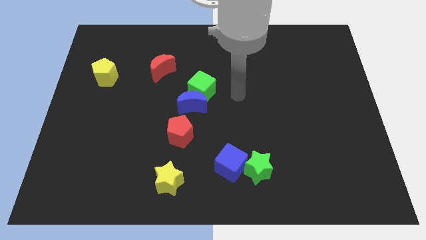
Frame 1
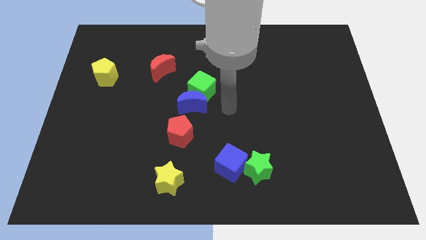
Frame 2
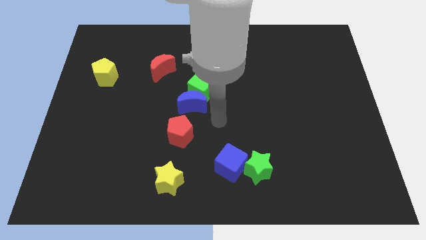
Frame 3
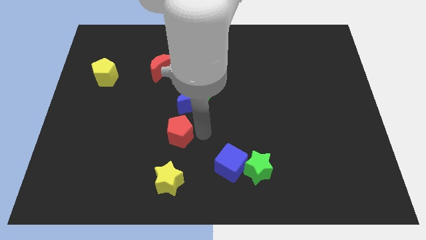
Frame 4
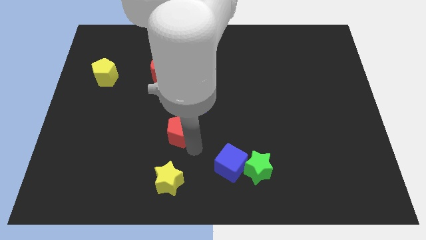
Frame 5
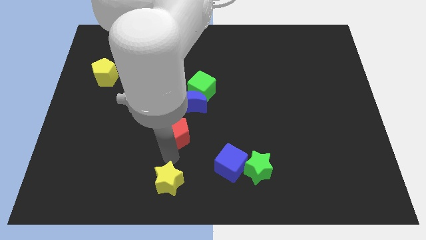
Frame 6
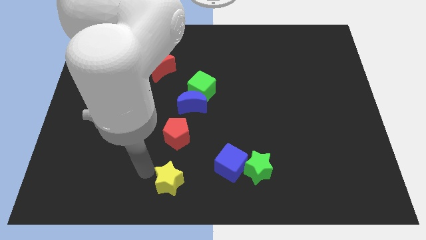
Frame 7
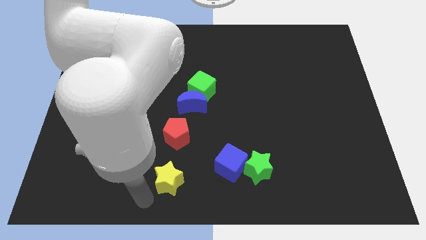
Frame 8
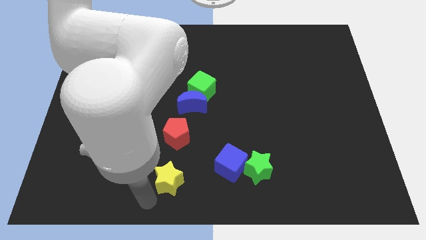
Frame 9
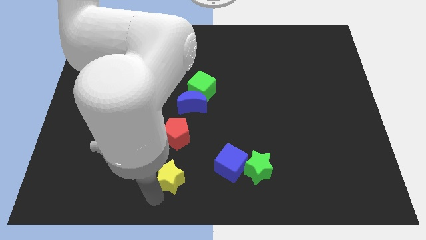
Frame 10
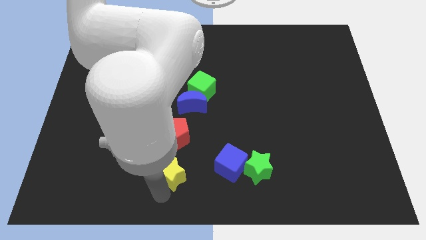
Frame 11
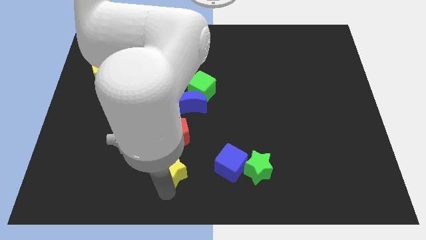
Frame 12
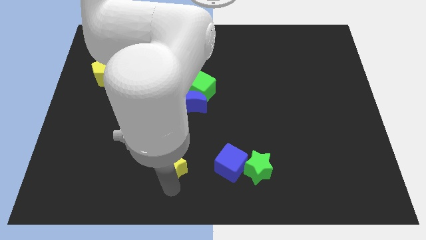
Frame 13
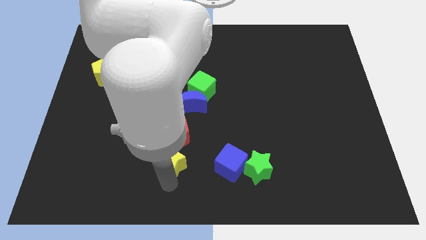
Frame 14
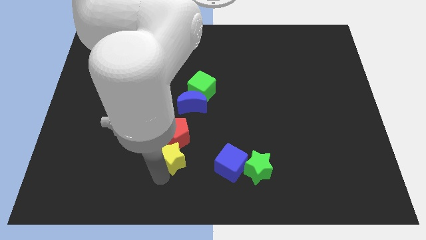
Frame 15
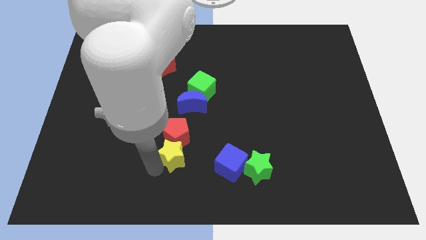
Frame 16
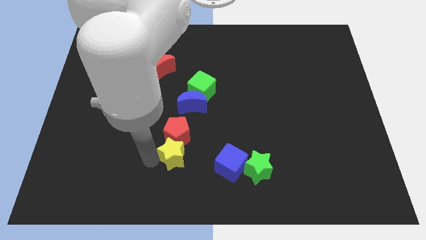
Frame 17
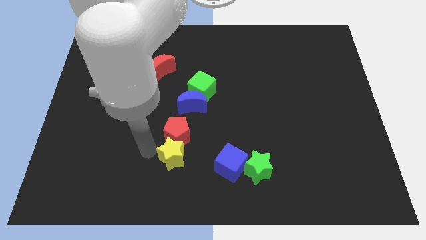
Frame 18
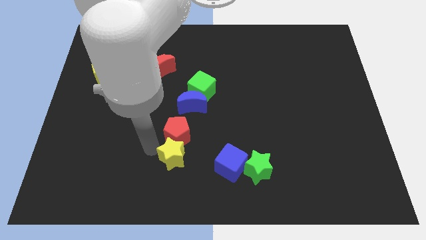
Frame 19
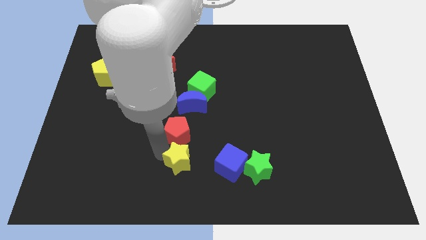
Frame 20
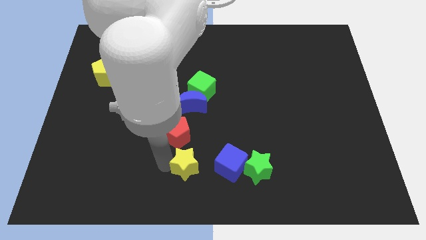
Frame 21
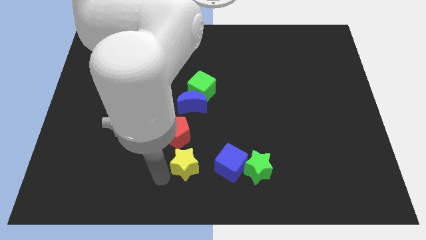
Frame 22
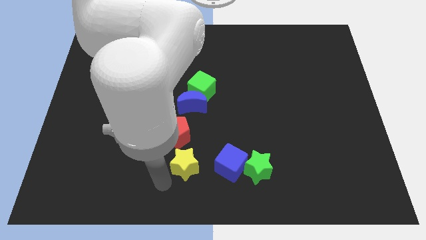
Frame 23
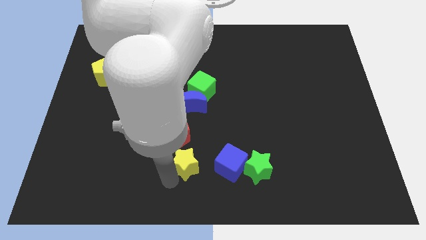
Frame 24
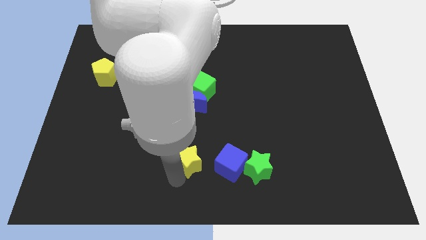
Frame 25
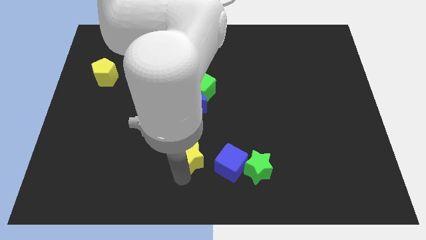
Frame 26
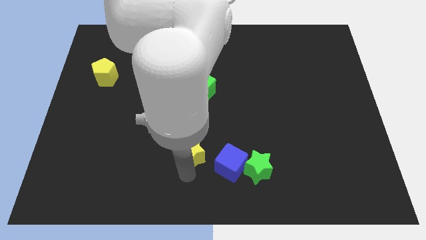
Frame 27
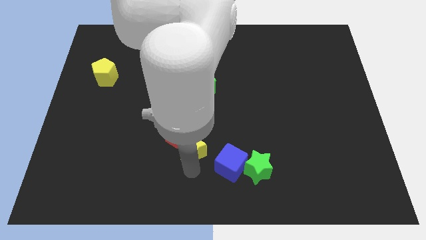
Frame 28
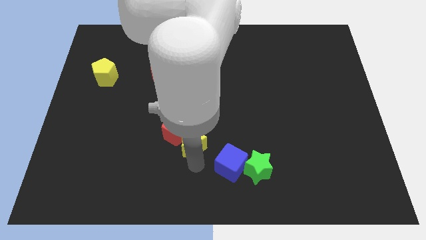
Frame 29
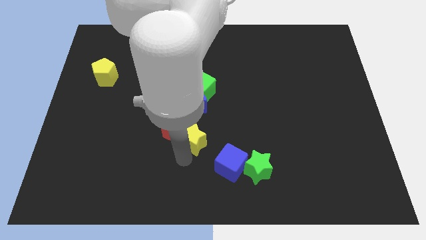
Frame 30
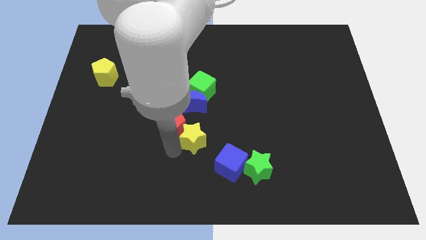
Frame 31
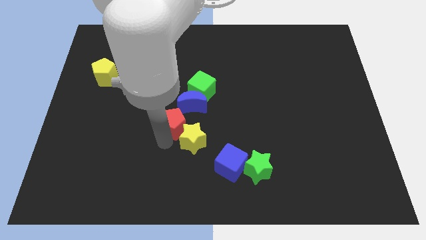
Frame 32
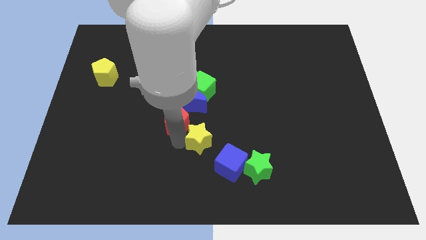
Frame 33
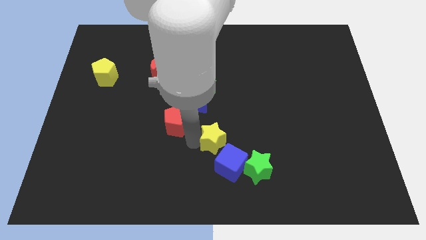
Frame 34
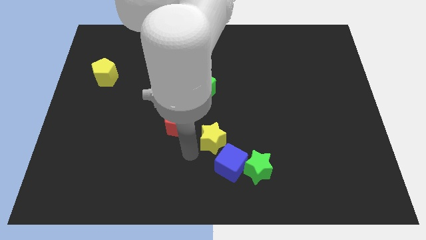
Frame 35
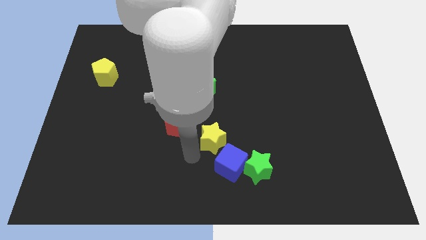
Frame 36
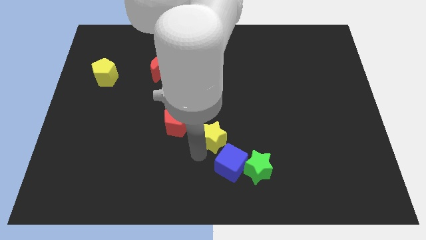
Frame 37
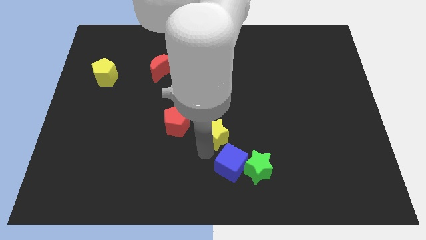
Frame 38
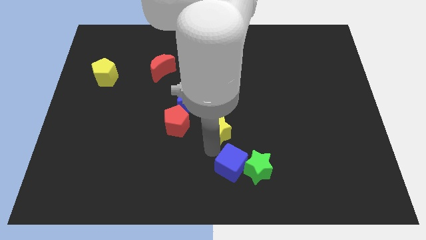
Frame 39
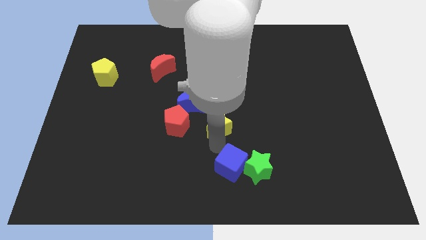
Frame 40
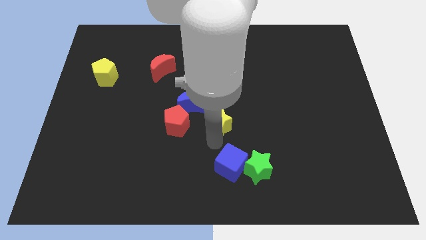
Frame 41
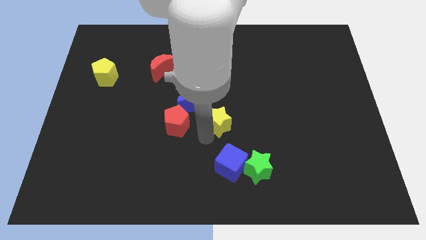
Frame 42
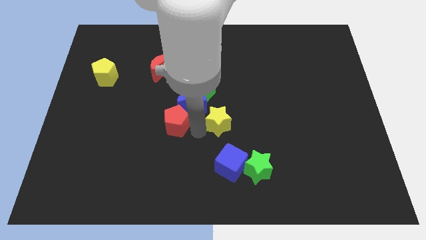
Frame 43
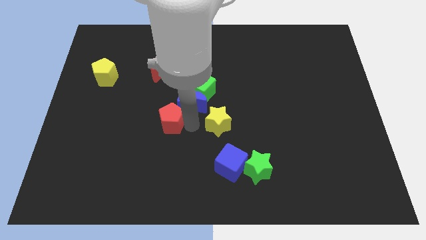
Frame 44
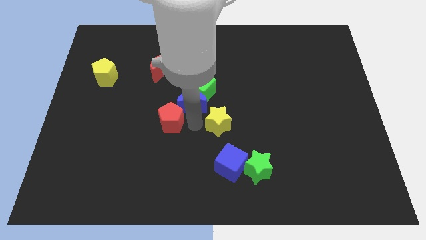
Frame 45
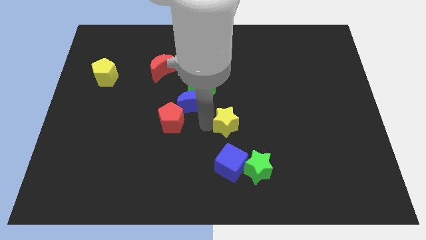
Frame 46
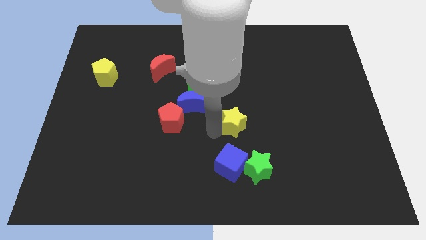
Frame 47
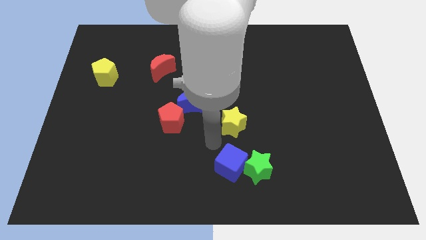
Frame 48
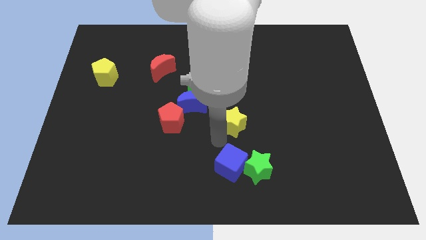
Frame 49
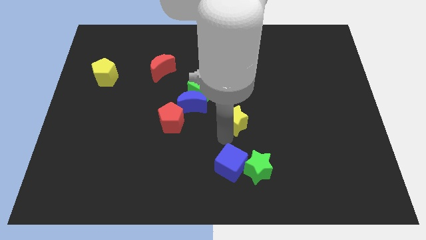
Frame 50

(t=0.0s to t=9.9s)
move the yellow star up and then right

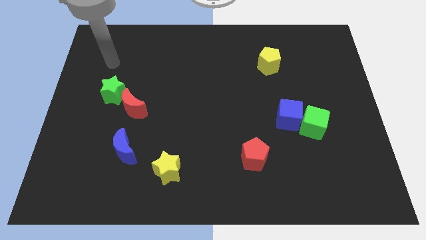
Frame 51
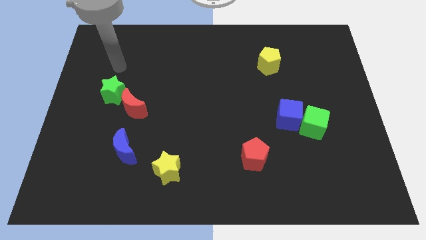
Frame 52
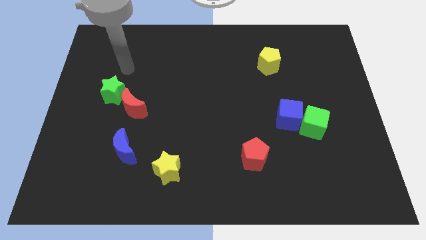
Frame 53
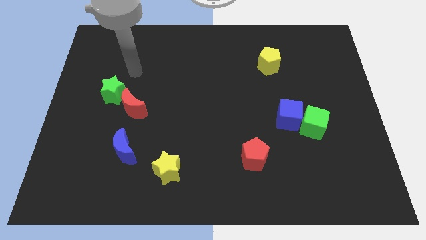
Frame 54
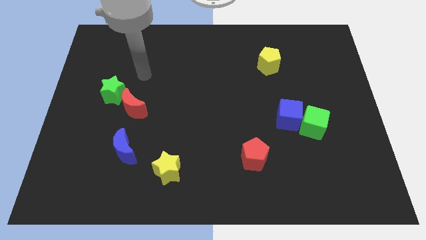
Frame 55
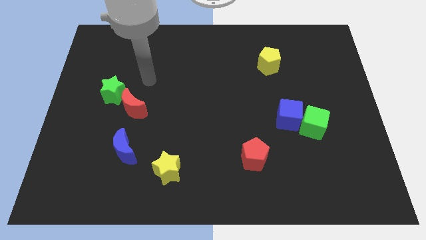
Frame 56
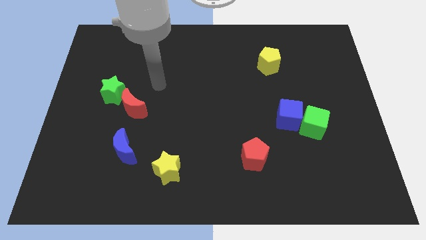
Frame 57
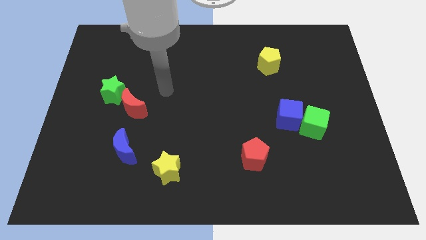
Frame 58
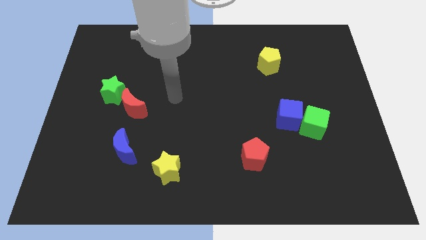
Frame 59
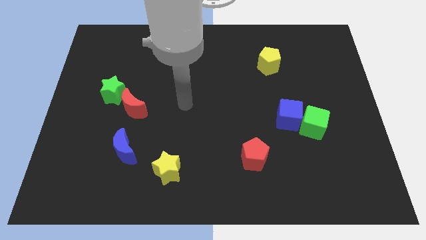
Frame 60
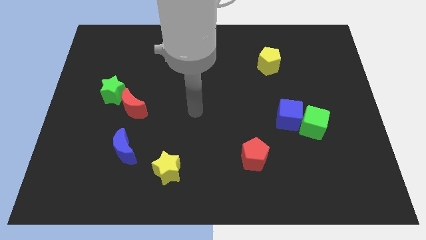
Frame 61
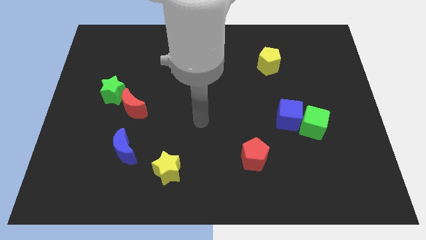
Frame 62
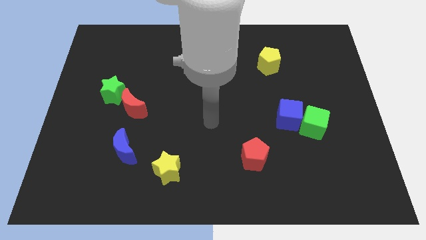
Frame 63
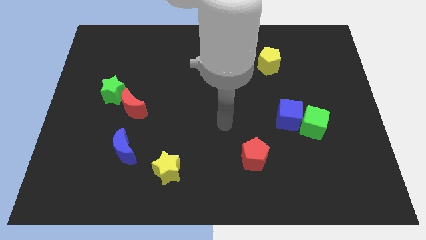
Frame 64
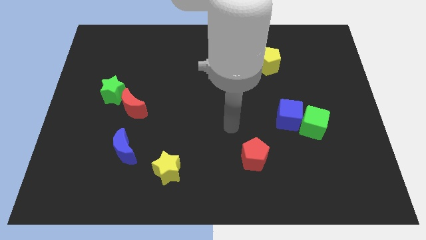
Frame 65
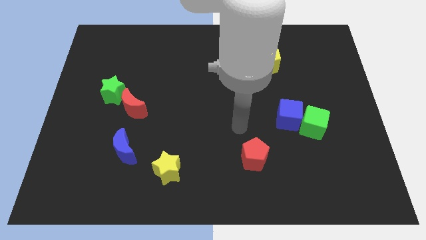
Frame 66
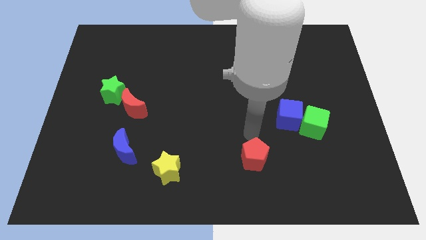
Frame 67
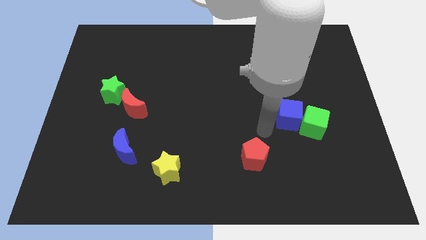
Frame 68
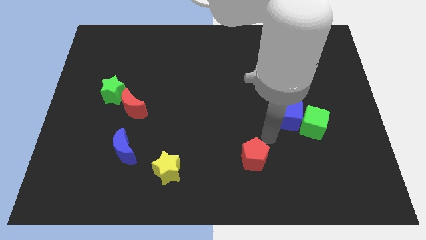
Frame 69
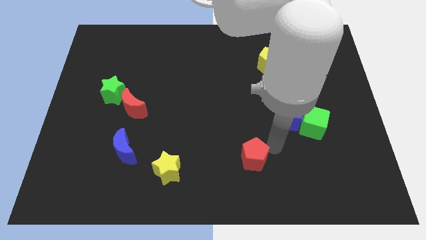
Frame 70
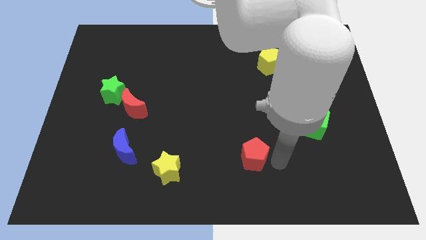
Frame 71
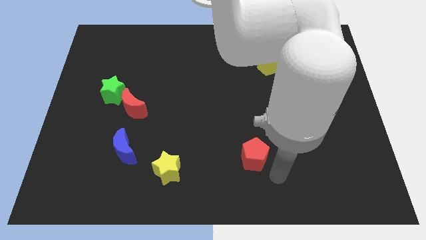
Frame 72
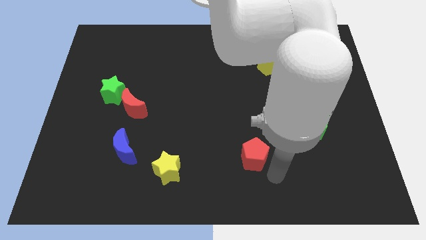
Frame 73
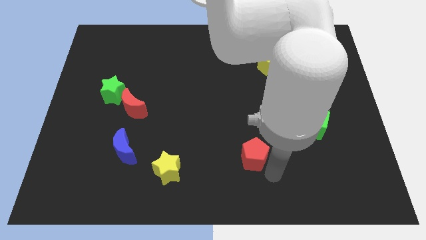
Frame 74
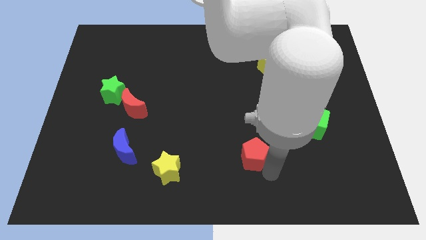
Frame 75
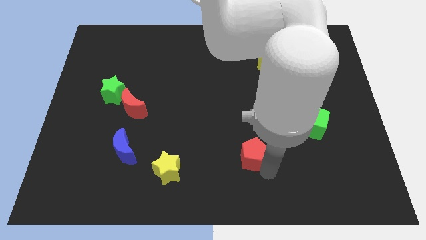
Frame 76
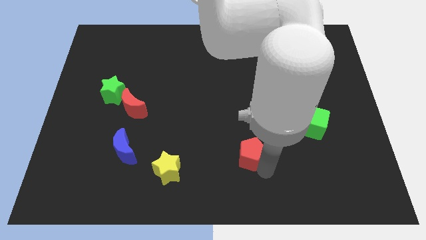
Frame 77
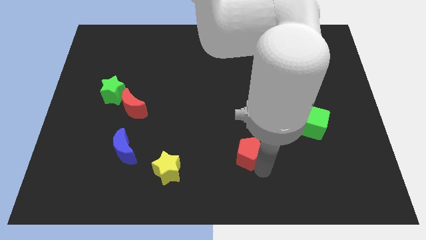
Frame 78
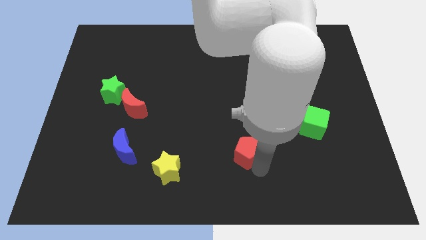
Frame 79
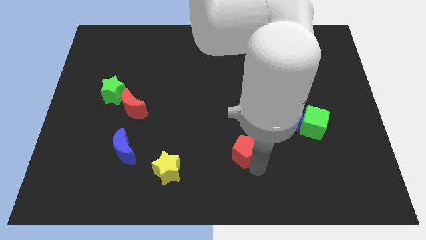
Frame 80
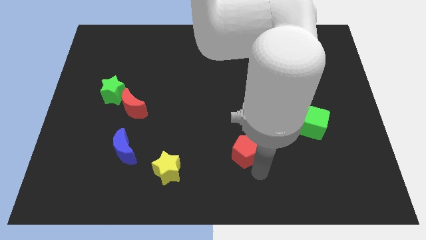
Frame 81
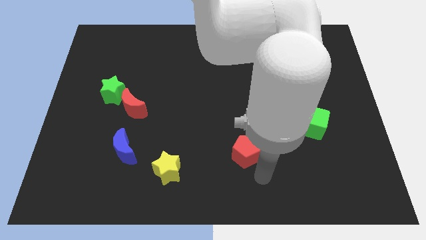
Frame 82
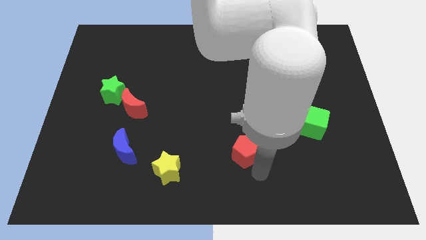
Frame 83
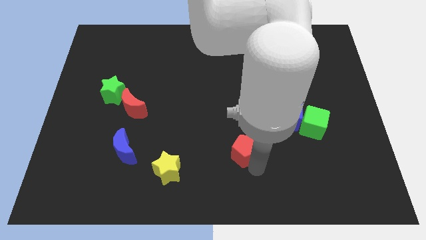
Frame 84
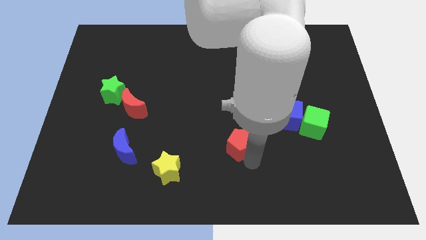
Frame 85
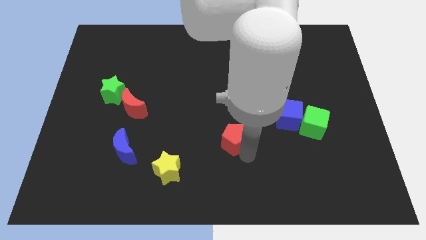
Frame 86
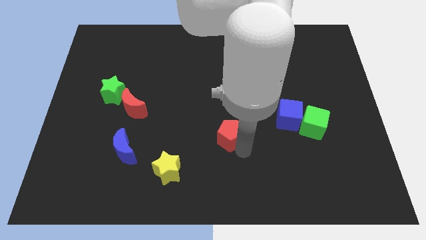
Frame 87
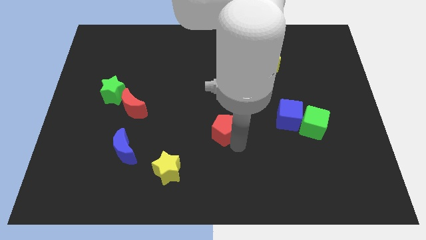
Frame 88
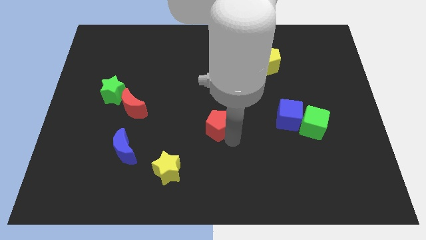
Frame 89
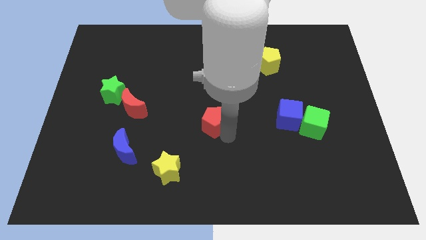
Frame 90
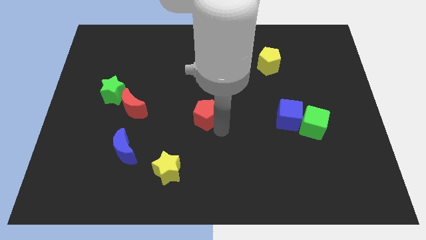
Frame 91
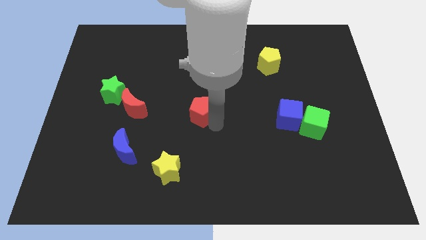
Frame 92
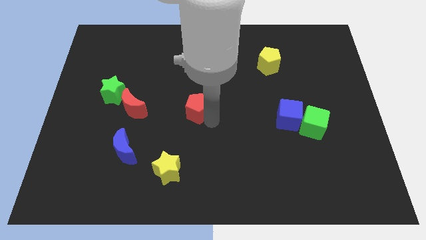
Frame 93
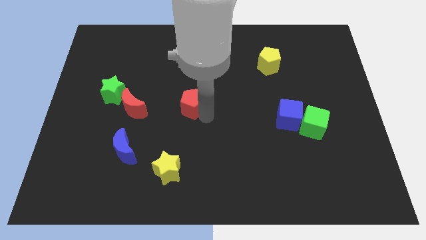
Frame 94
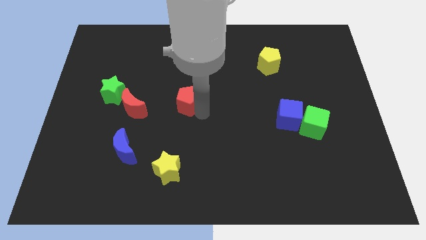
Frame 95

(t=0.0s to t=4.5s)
slide the red pentagon up and then left
